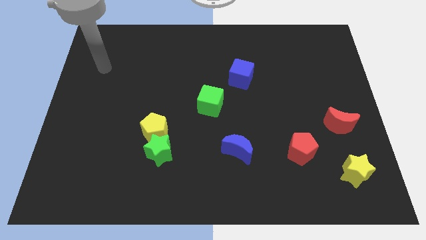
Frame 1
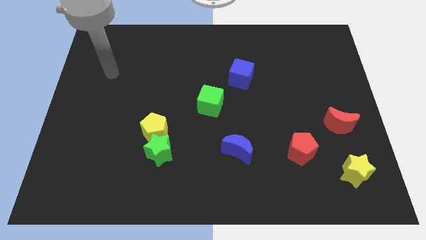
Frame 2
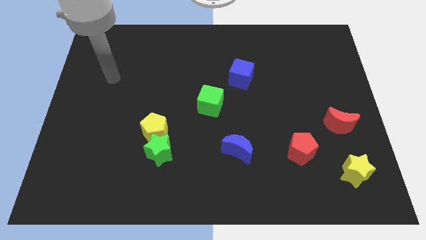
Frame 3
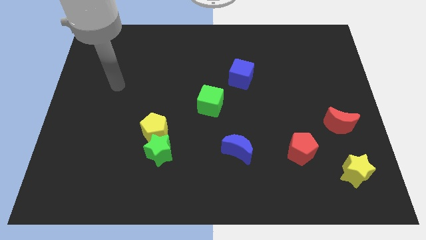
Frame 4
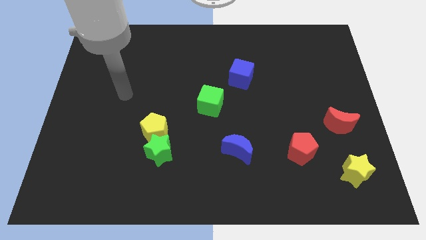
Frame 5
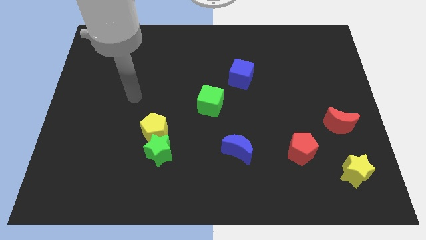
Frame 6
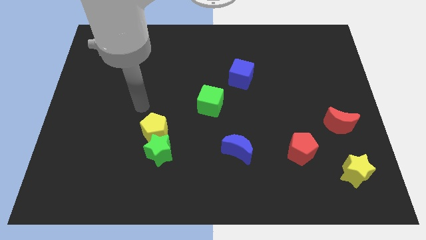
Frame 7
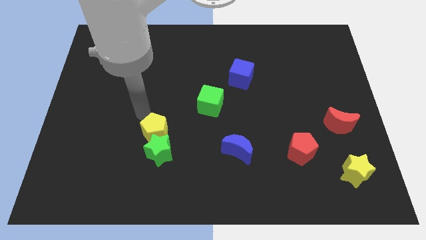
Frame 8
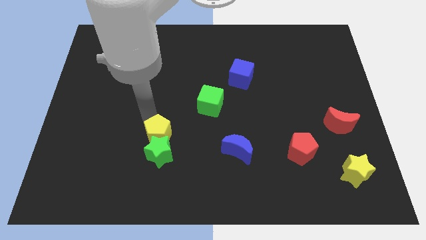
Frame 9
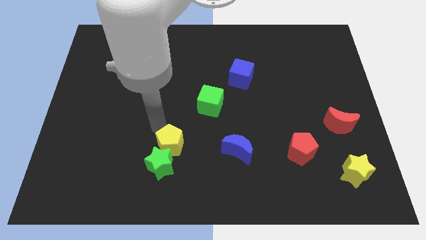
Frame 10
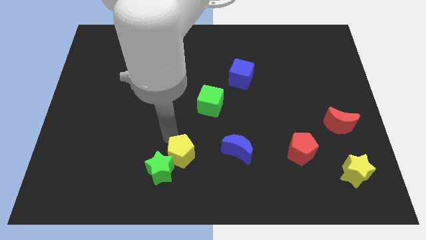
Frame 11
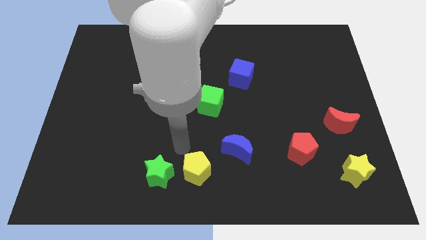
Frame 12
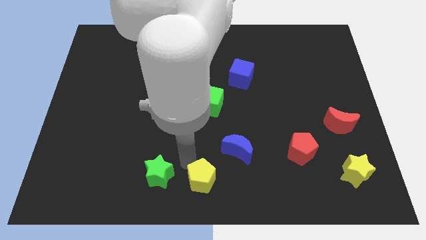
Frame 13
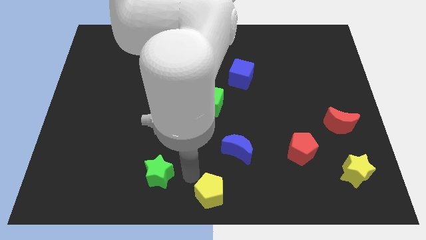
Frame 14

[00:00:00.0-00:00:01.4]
pull the green star apart from the yellow pentagon

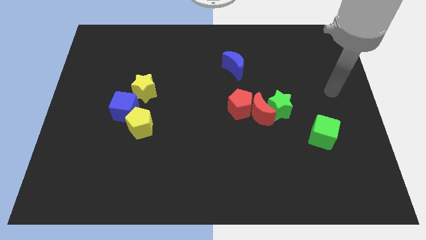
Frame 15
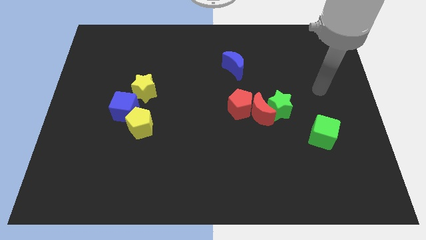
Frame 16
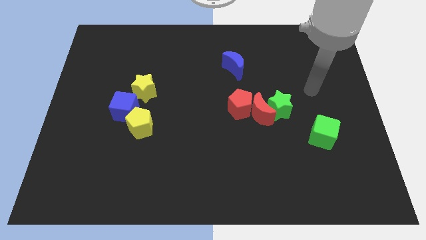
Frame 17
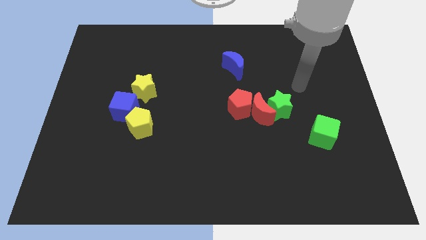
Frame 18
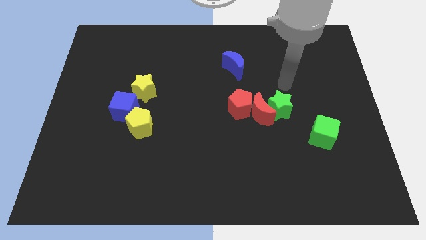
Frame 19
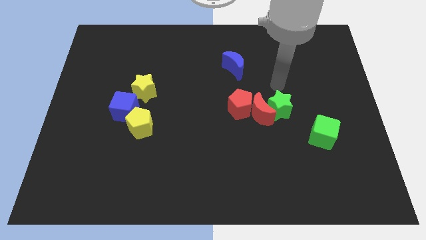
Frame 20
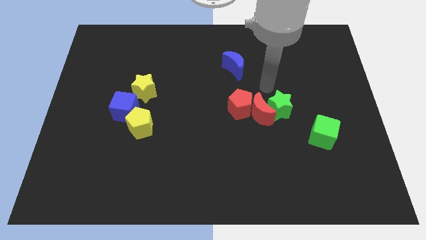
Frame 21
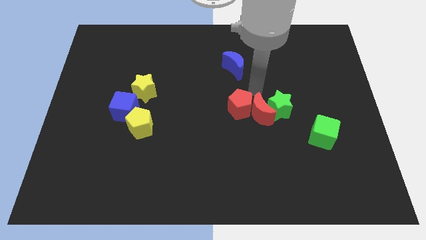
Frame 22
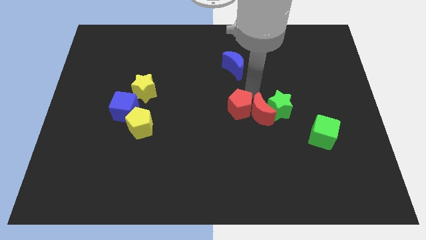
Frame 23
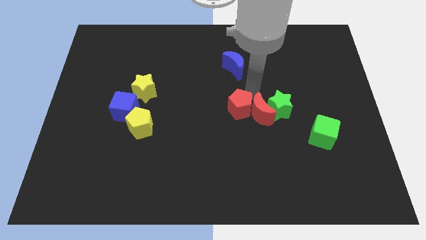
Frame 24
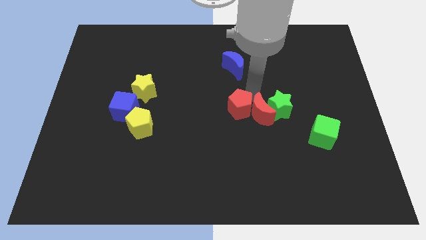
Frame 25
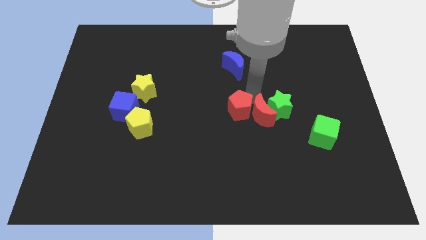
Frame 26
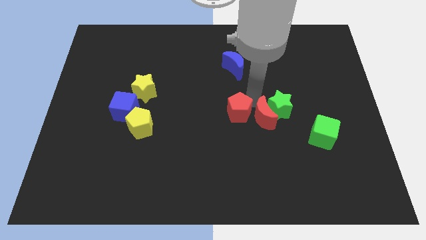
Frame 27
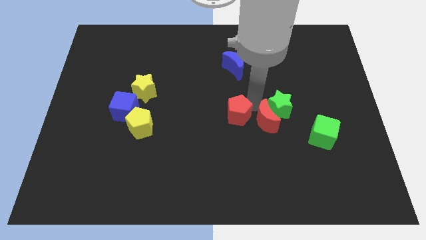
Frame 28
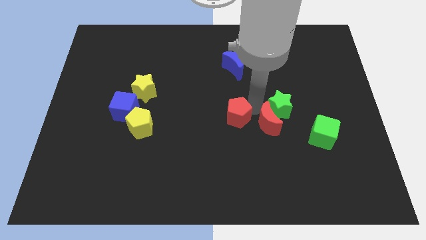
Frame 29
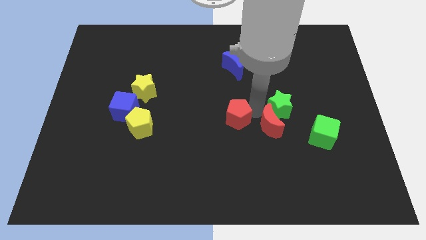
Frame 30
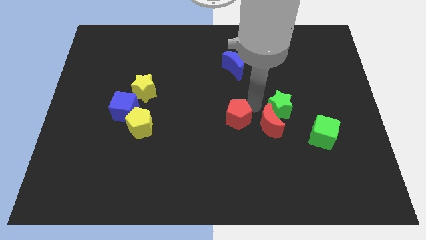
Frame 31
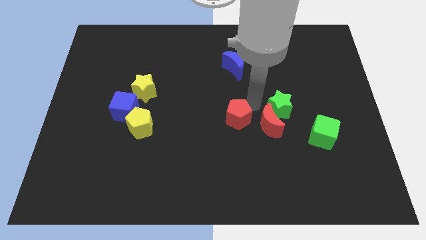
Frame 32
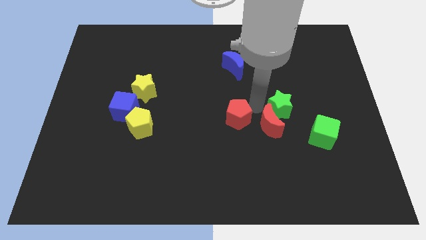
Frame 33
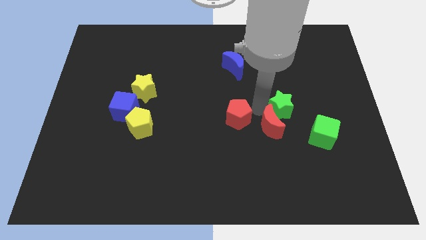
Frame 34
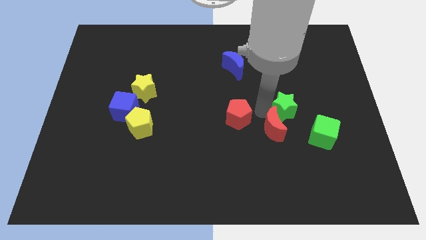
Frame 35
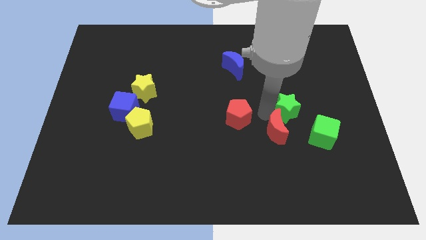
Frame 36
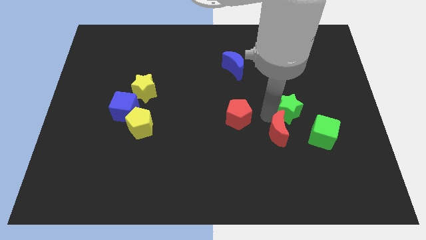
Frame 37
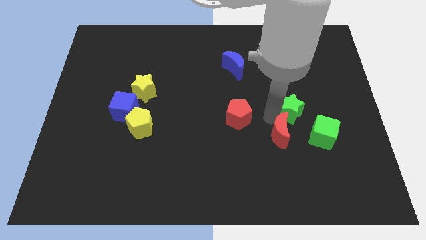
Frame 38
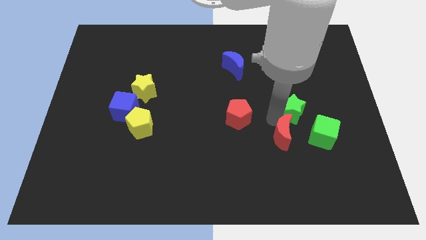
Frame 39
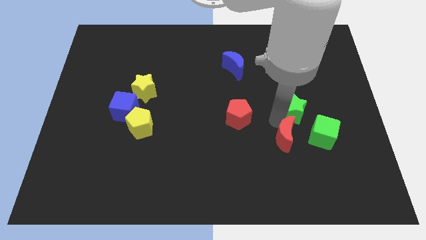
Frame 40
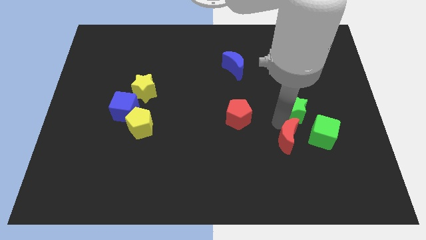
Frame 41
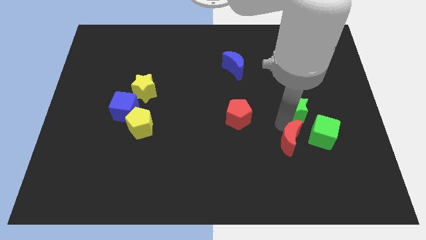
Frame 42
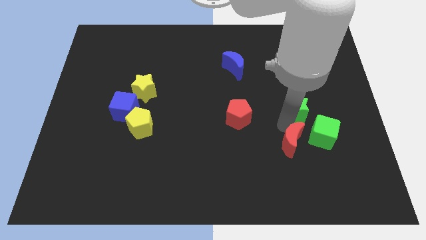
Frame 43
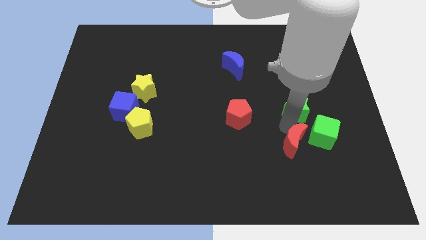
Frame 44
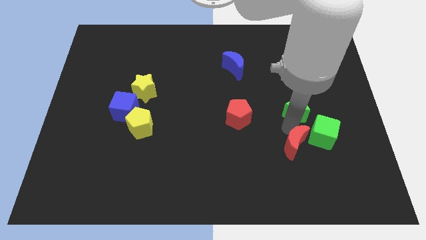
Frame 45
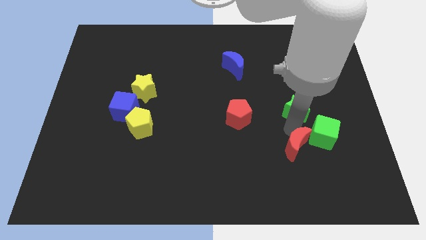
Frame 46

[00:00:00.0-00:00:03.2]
move the red moon away from the green star and red pentagon

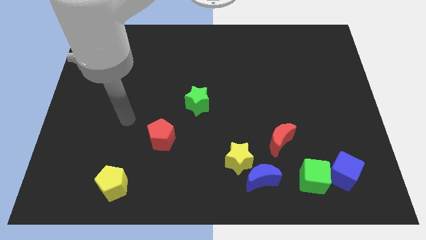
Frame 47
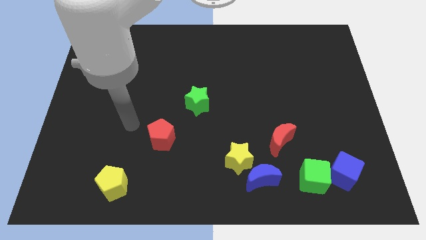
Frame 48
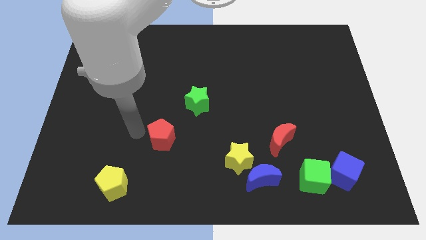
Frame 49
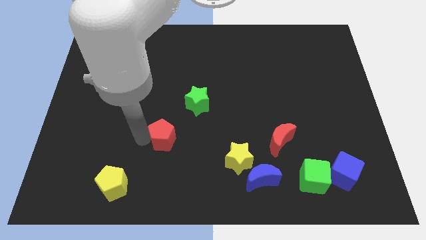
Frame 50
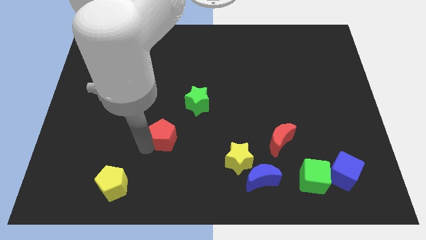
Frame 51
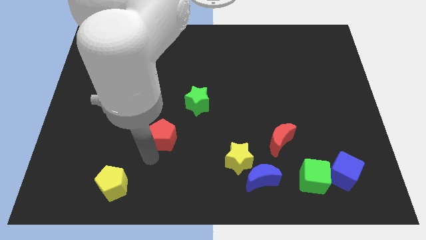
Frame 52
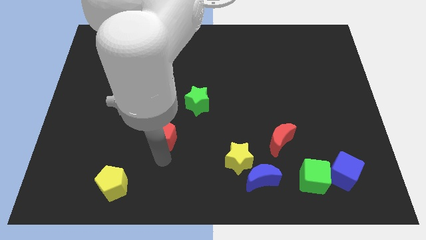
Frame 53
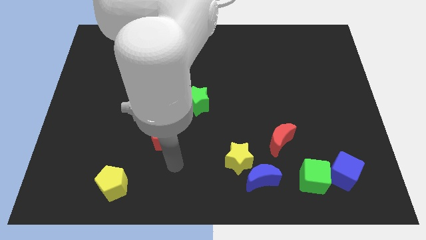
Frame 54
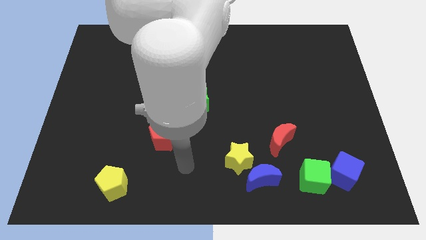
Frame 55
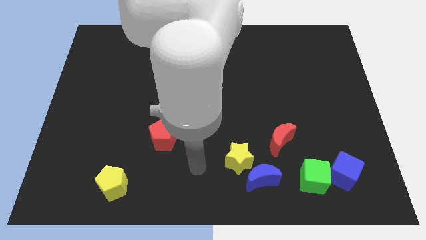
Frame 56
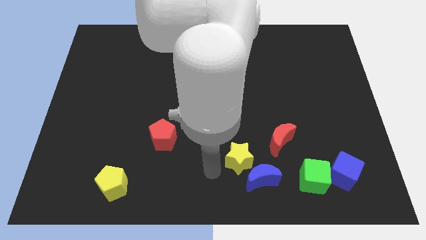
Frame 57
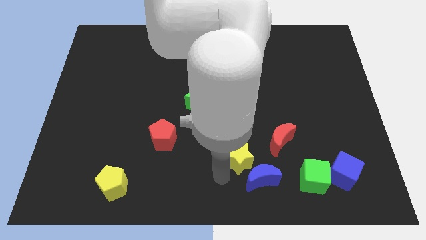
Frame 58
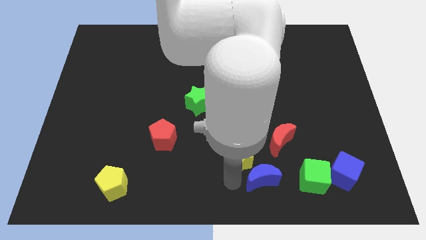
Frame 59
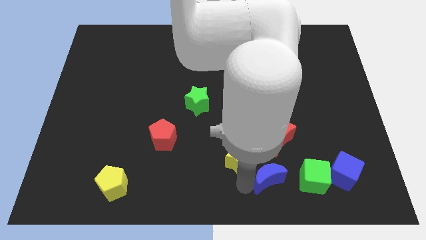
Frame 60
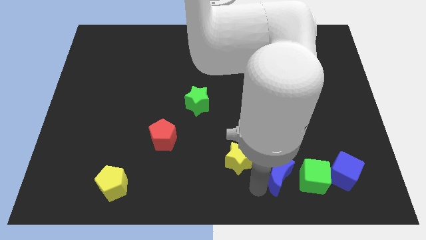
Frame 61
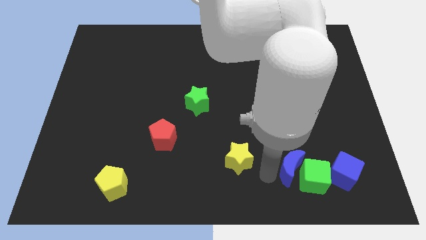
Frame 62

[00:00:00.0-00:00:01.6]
move the yellow star away from the blue moon

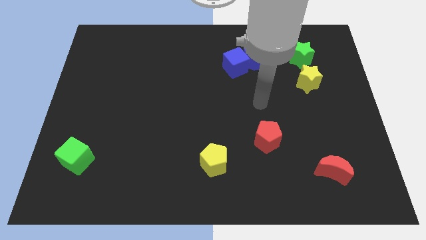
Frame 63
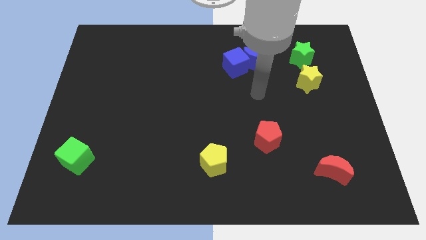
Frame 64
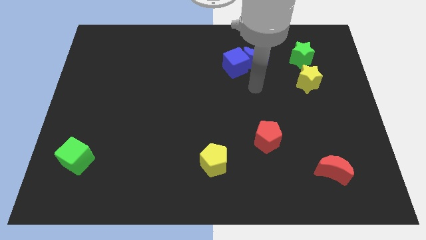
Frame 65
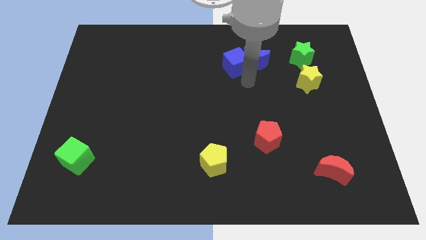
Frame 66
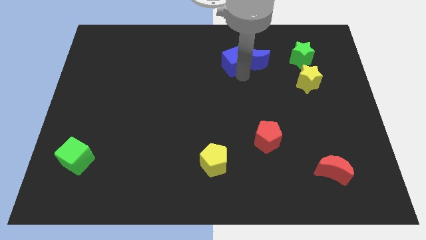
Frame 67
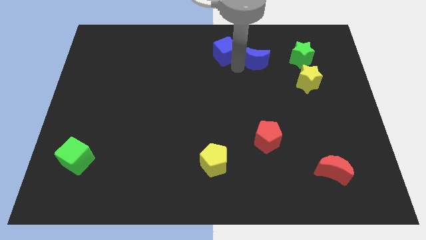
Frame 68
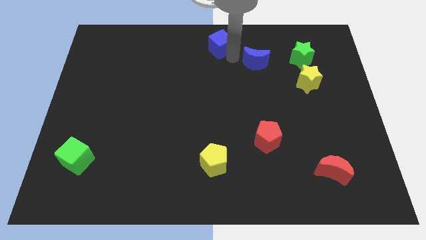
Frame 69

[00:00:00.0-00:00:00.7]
separate the blue moon from the blue cube

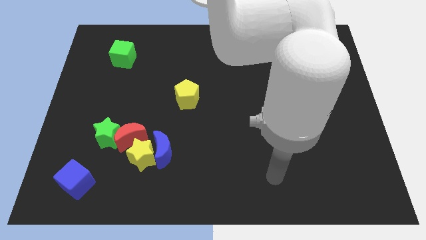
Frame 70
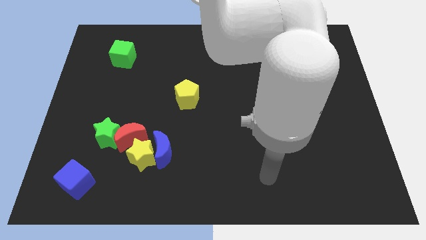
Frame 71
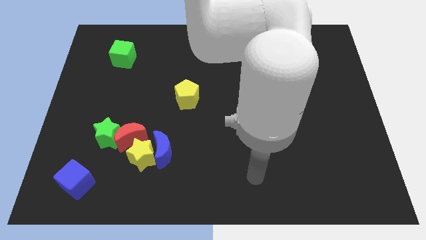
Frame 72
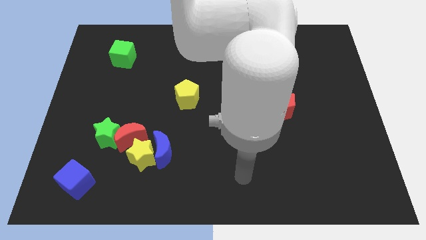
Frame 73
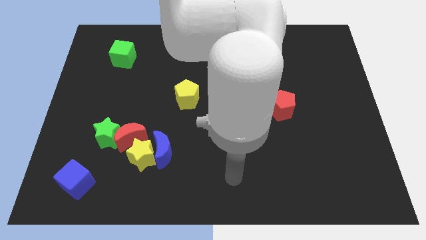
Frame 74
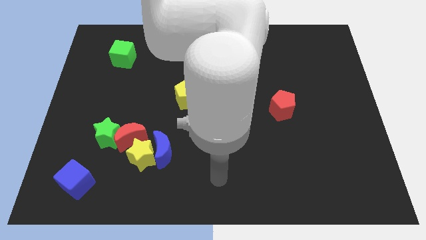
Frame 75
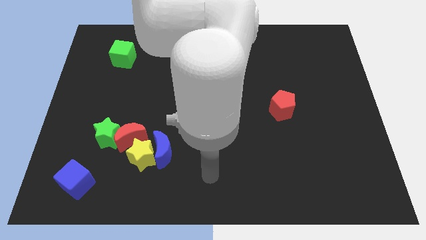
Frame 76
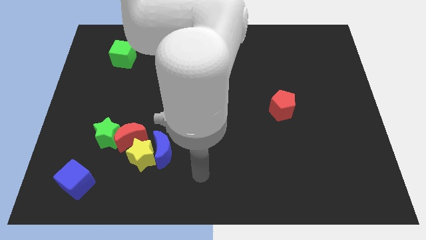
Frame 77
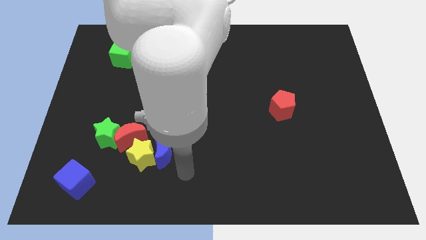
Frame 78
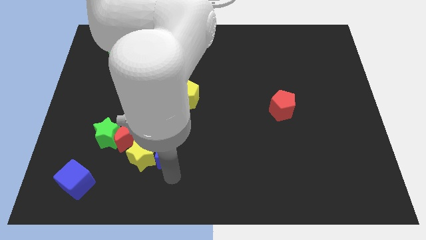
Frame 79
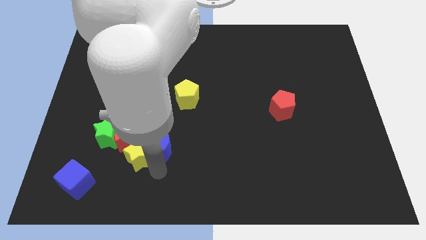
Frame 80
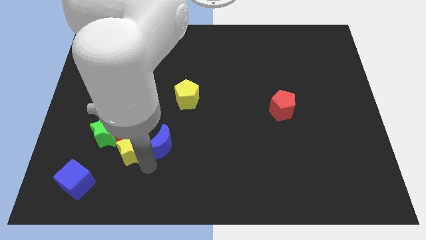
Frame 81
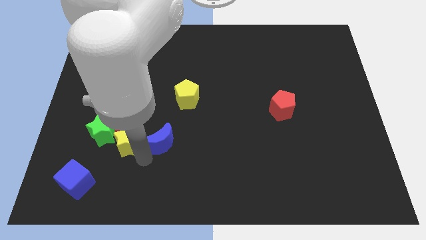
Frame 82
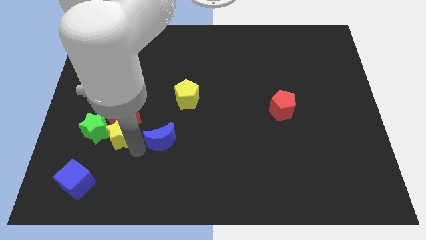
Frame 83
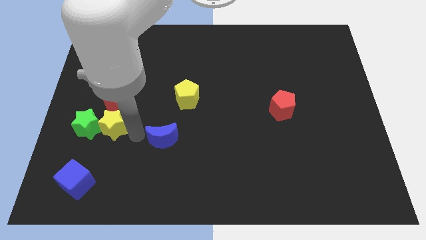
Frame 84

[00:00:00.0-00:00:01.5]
pull the blue moon apart from the yellow star and red moon

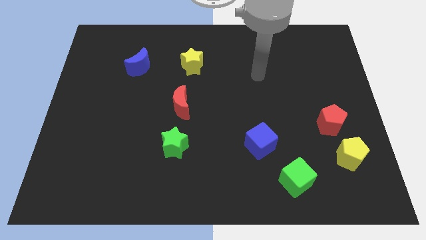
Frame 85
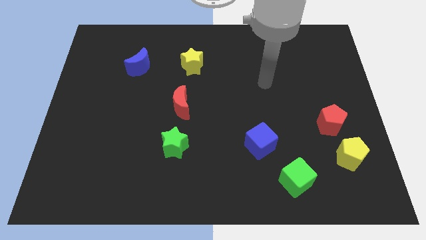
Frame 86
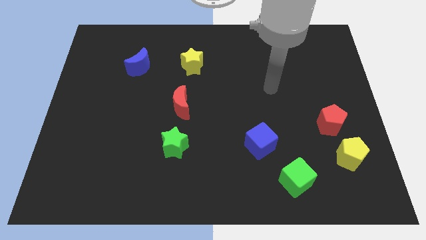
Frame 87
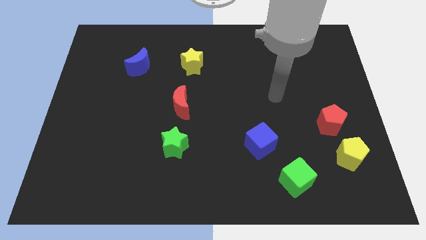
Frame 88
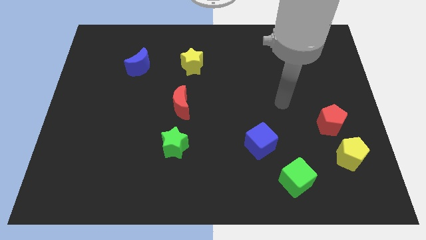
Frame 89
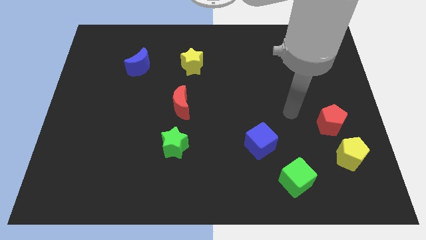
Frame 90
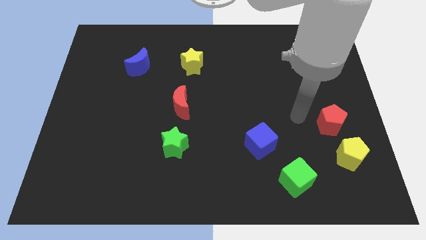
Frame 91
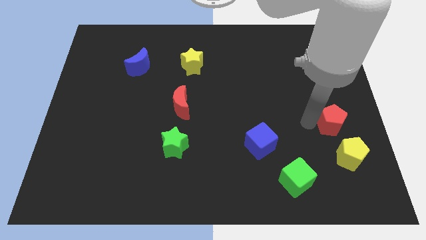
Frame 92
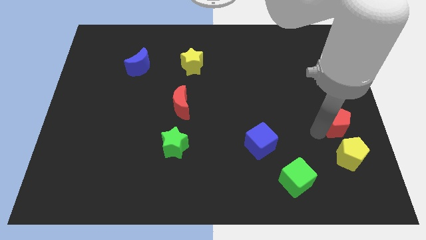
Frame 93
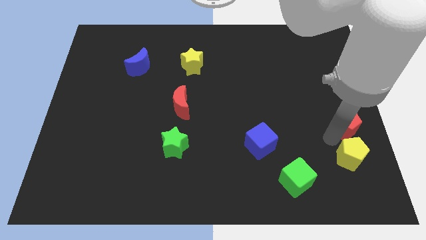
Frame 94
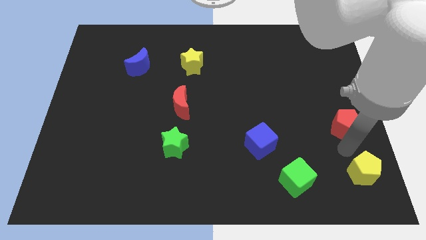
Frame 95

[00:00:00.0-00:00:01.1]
separate the red pentagon from the yellow pentagon

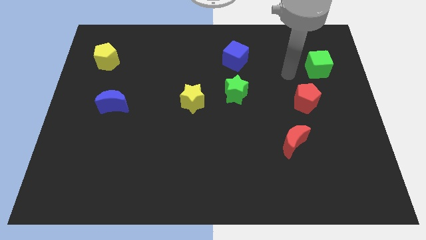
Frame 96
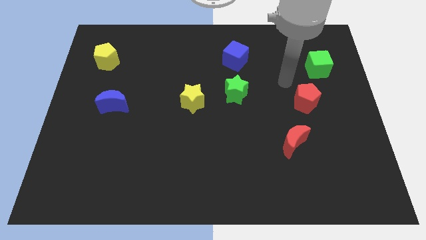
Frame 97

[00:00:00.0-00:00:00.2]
separate the green star from the yellow star
